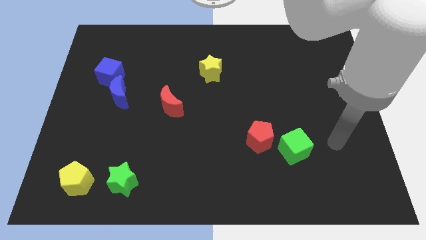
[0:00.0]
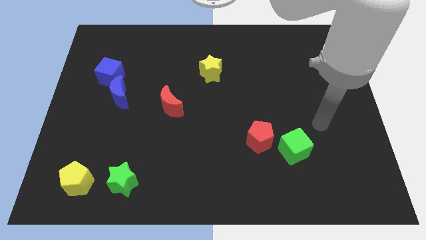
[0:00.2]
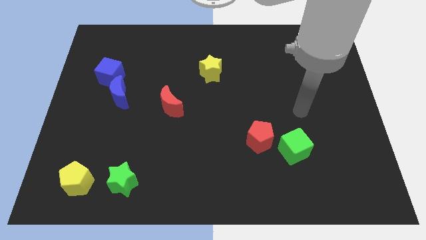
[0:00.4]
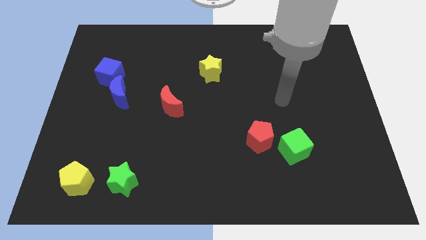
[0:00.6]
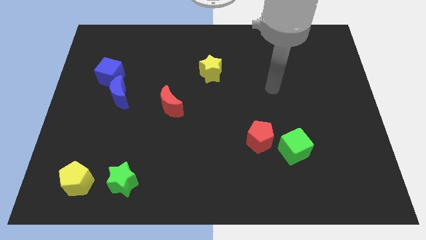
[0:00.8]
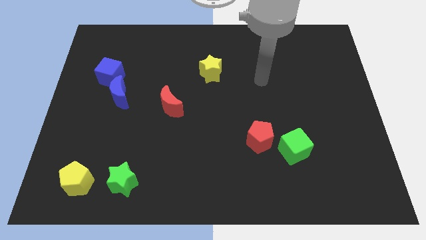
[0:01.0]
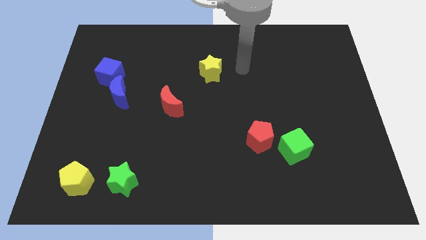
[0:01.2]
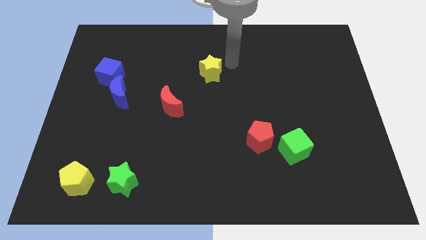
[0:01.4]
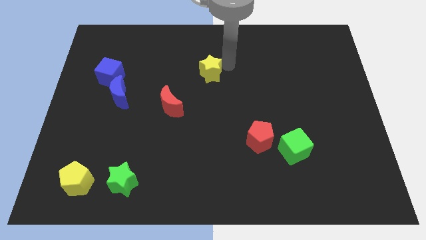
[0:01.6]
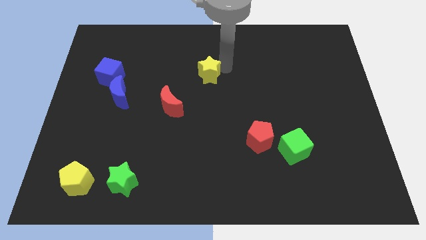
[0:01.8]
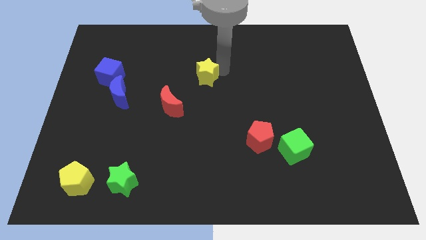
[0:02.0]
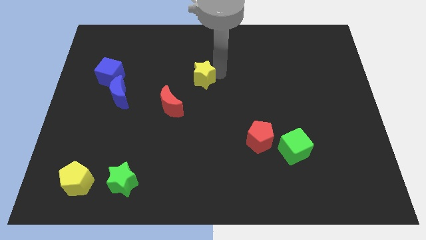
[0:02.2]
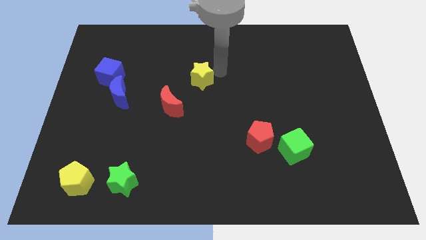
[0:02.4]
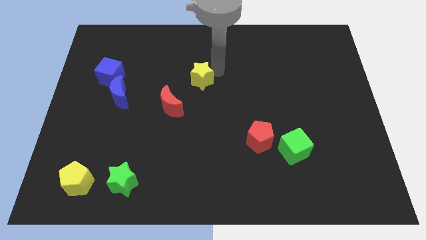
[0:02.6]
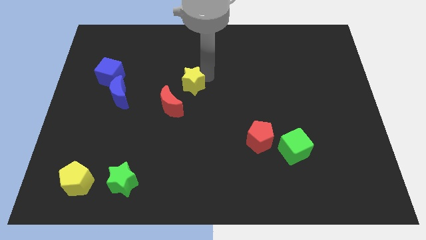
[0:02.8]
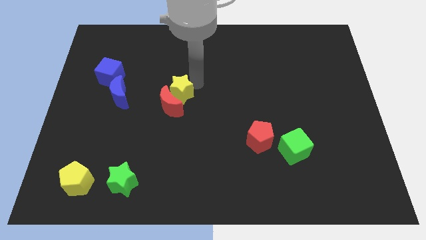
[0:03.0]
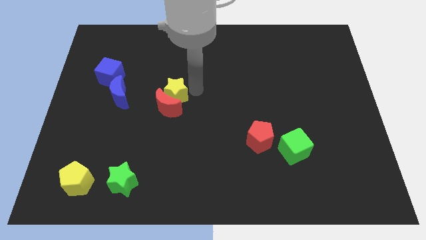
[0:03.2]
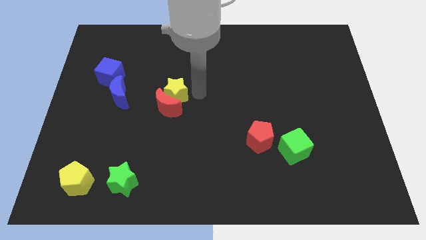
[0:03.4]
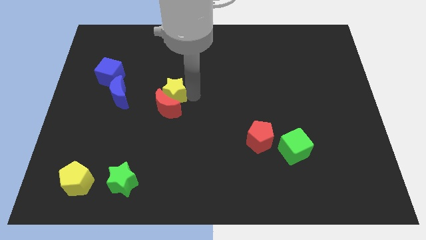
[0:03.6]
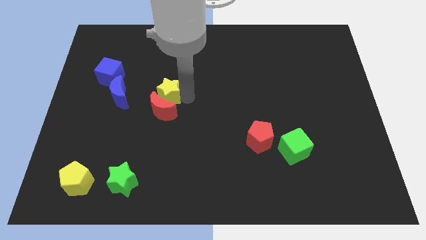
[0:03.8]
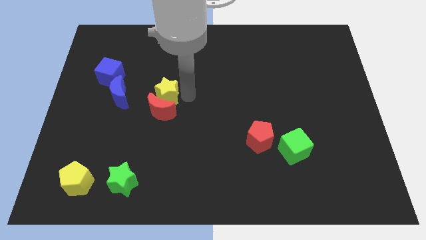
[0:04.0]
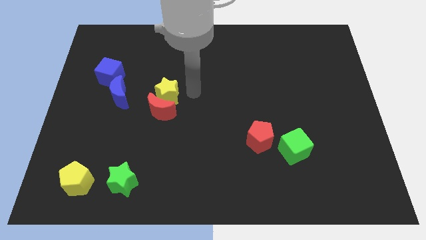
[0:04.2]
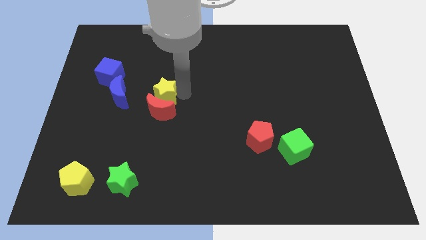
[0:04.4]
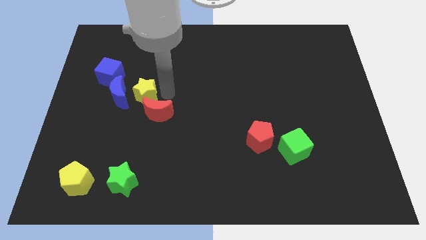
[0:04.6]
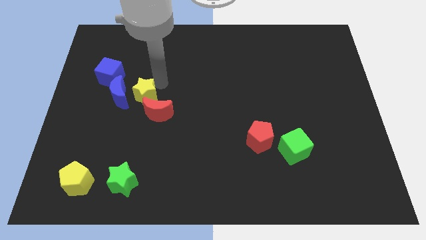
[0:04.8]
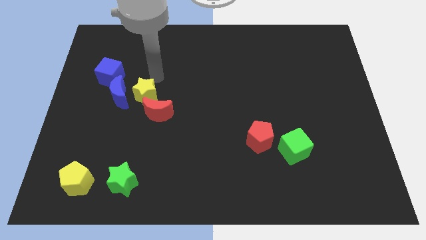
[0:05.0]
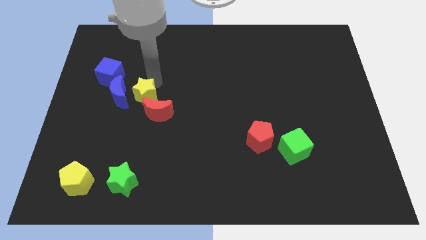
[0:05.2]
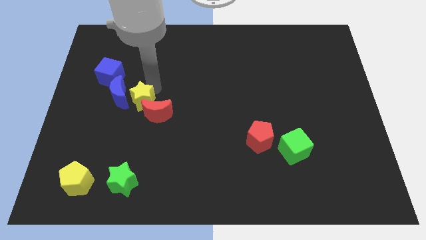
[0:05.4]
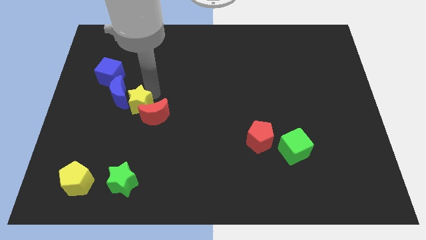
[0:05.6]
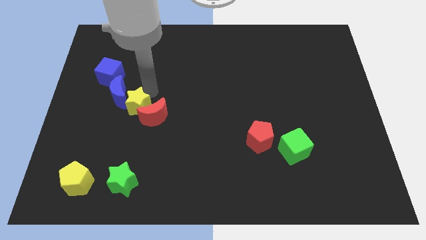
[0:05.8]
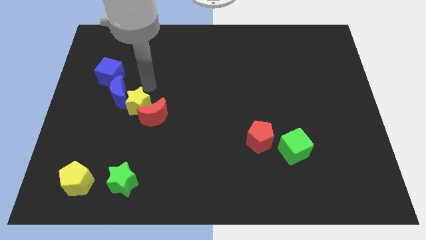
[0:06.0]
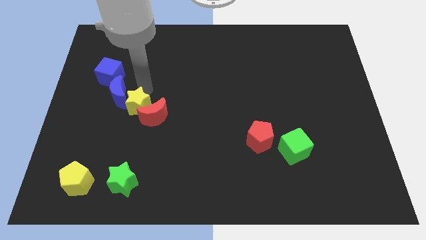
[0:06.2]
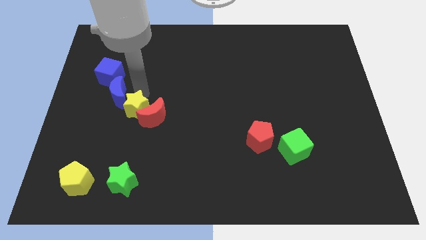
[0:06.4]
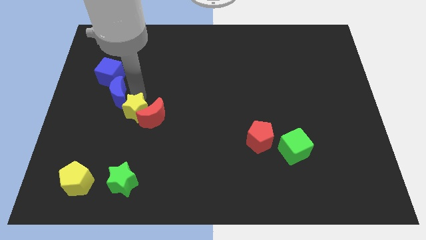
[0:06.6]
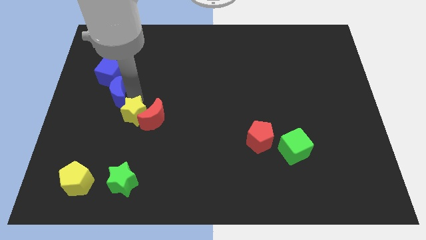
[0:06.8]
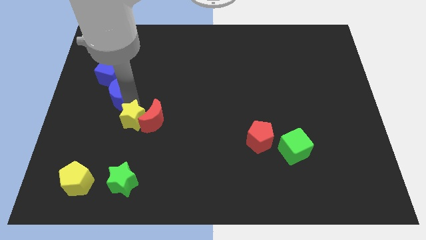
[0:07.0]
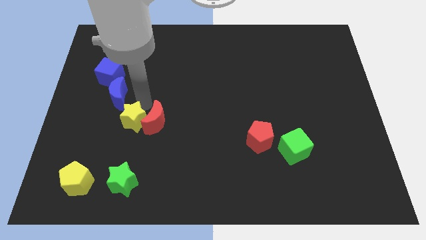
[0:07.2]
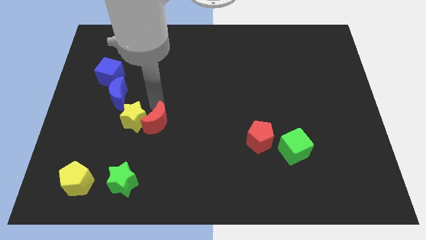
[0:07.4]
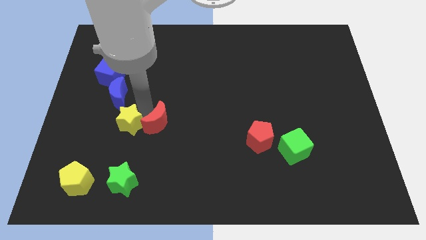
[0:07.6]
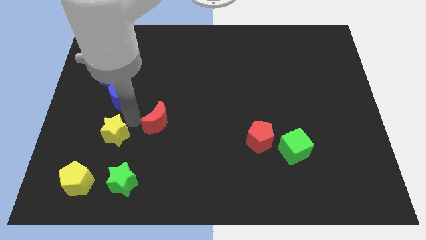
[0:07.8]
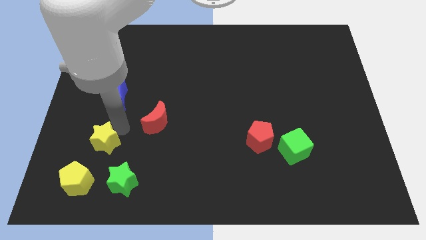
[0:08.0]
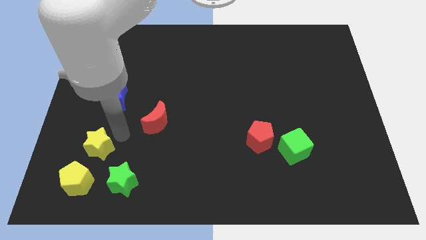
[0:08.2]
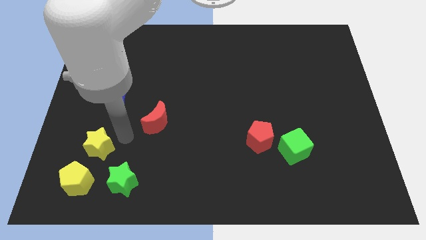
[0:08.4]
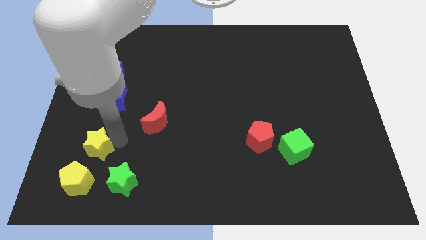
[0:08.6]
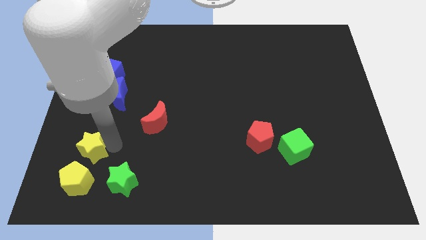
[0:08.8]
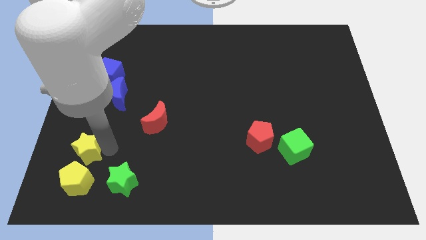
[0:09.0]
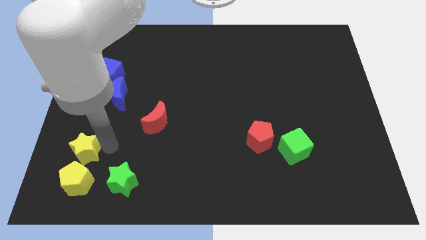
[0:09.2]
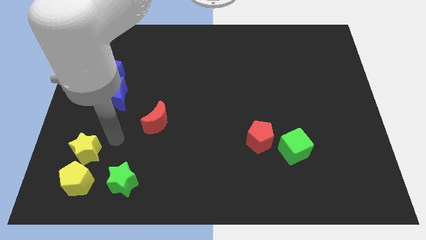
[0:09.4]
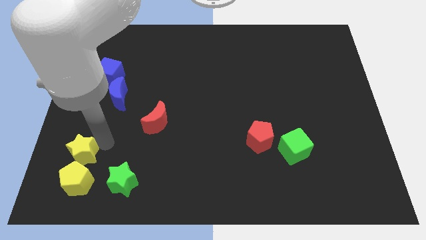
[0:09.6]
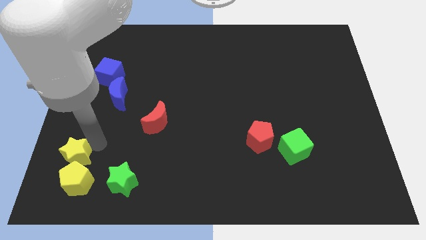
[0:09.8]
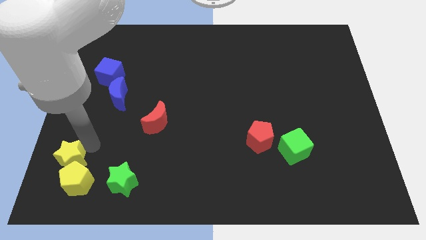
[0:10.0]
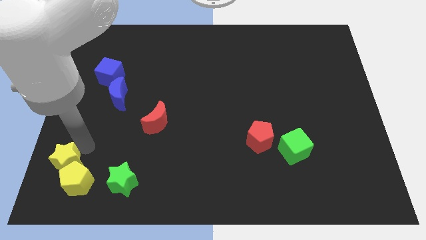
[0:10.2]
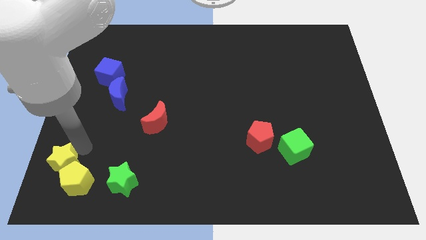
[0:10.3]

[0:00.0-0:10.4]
move the yellow star left of the green star

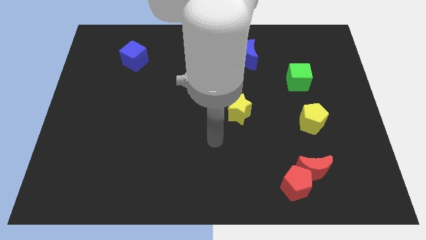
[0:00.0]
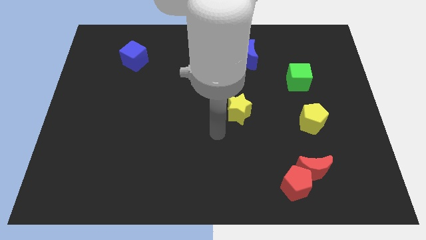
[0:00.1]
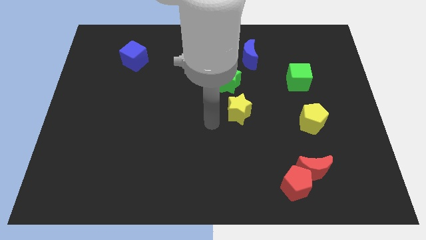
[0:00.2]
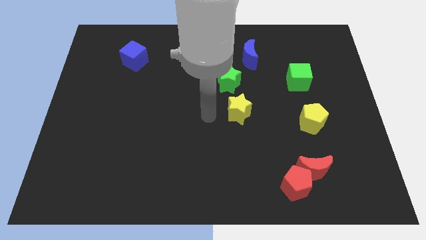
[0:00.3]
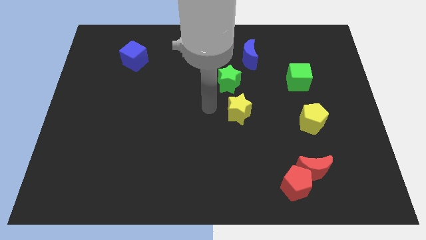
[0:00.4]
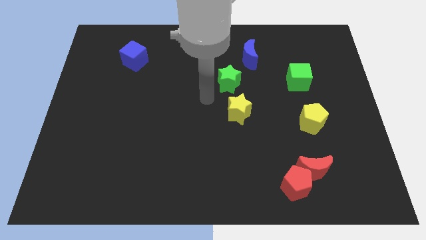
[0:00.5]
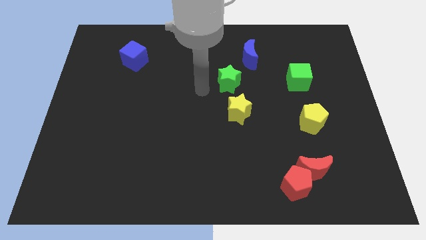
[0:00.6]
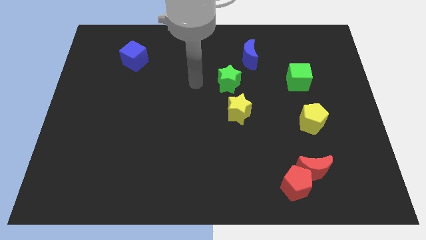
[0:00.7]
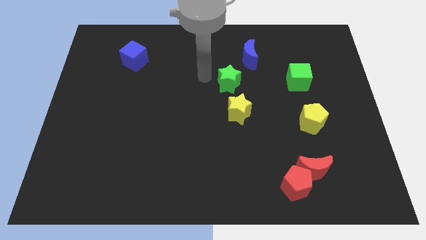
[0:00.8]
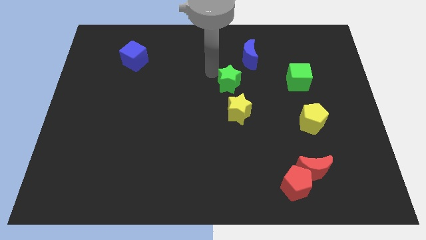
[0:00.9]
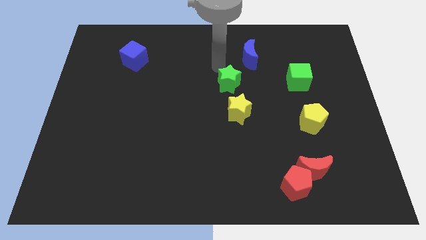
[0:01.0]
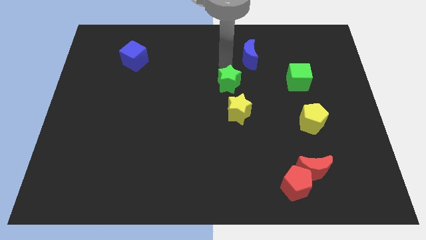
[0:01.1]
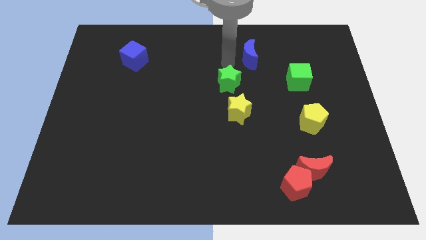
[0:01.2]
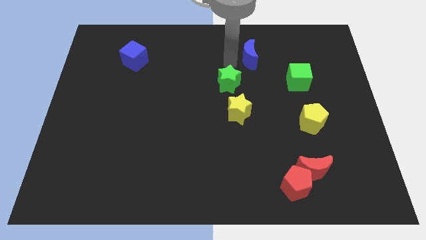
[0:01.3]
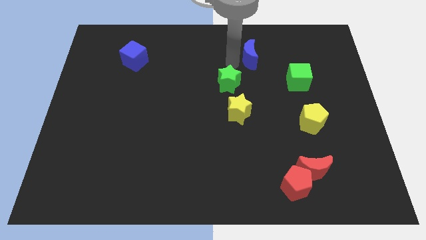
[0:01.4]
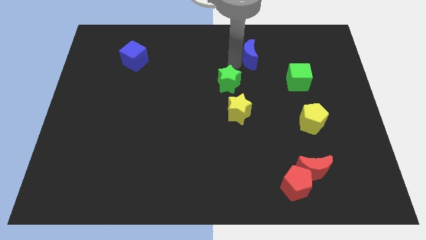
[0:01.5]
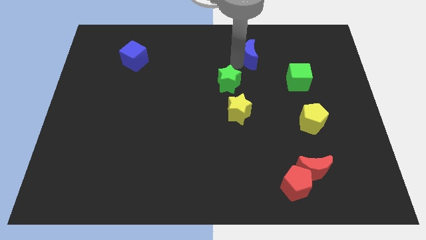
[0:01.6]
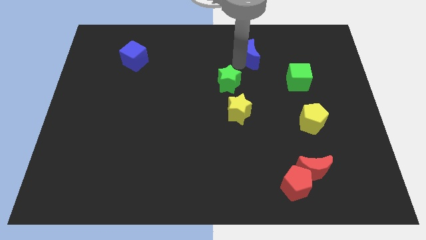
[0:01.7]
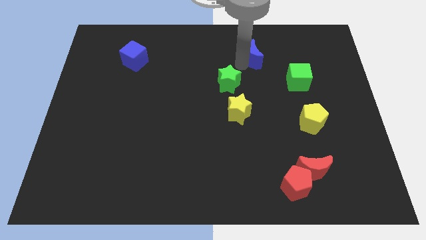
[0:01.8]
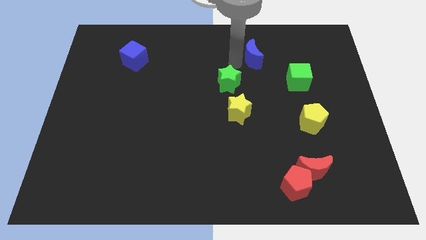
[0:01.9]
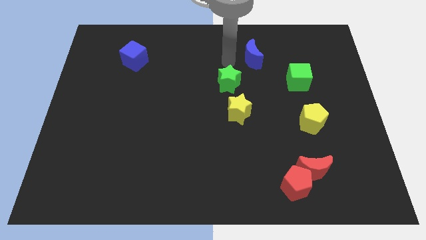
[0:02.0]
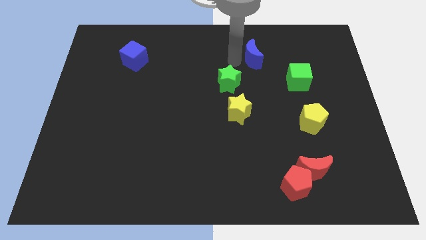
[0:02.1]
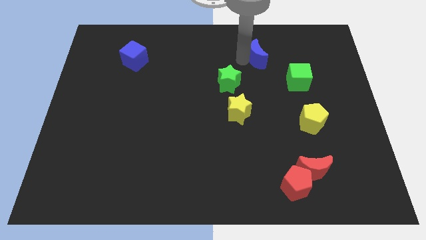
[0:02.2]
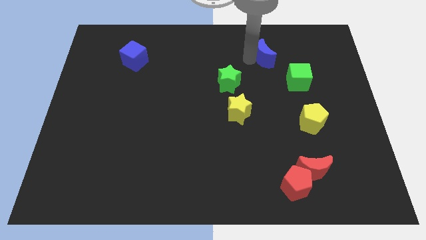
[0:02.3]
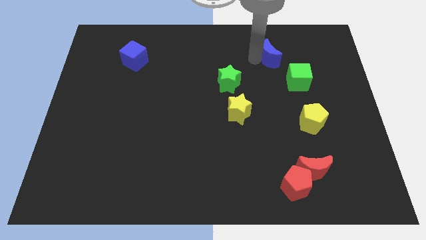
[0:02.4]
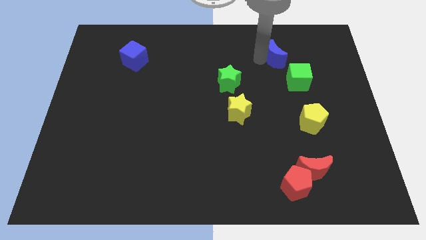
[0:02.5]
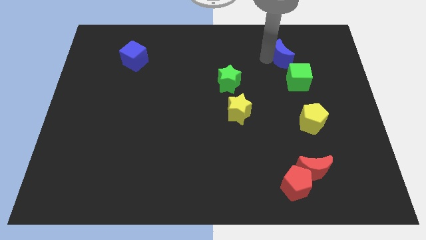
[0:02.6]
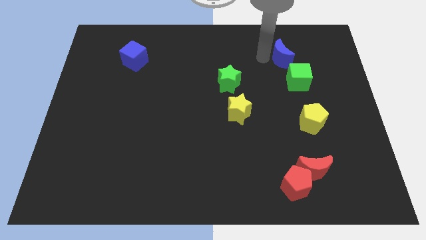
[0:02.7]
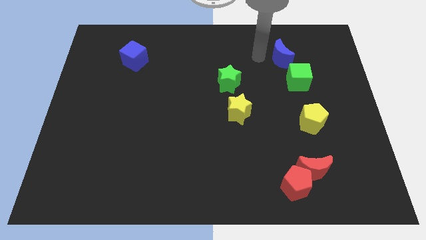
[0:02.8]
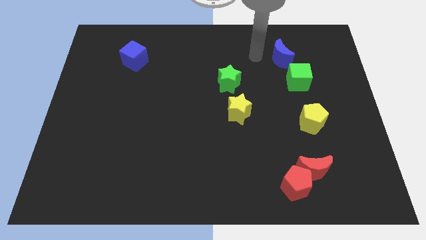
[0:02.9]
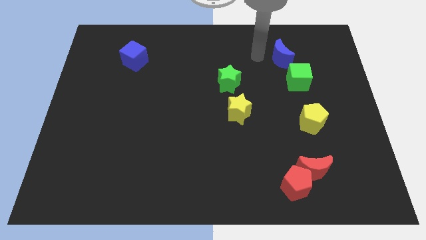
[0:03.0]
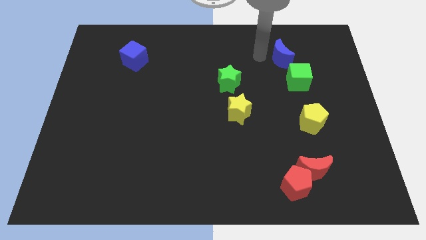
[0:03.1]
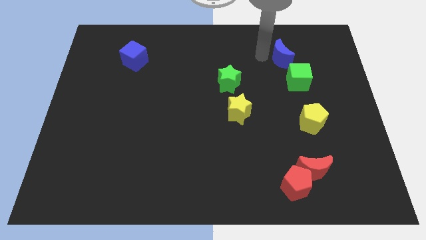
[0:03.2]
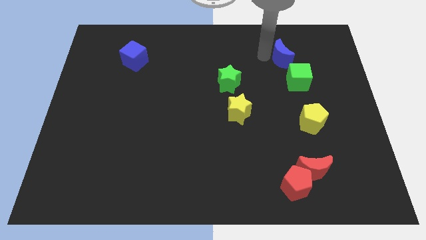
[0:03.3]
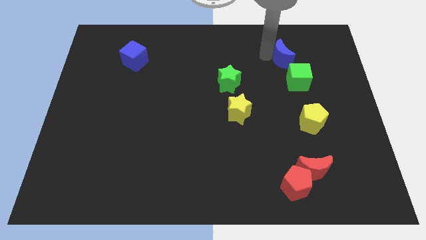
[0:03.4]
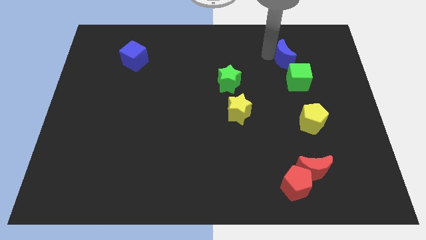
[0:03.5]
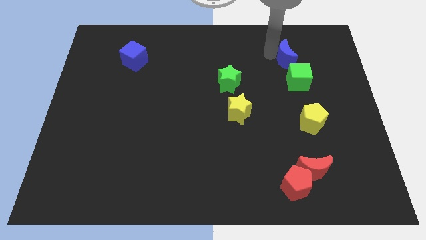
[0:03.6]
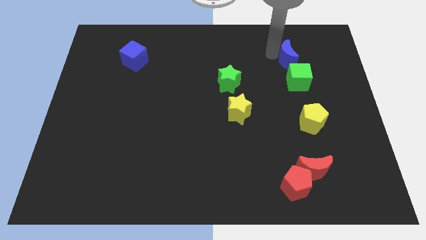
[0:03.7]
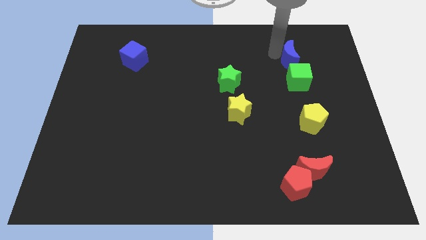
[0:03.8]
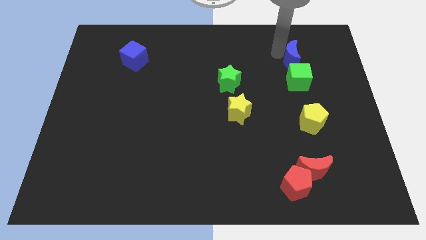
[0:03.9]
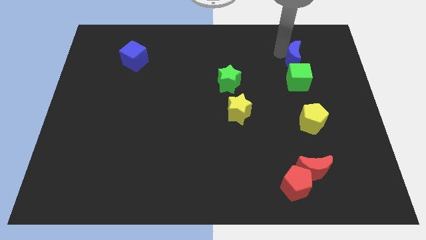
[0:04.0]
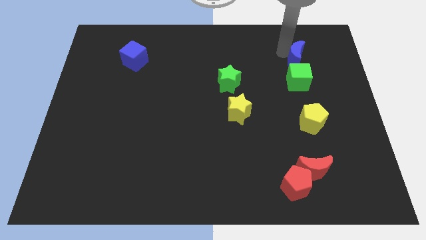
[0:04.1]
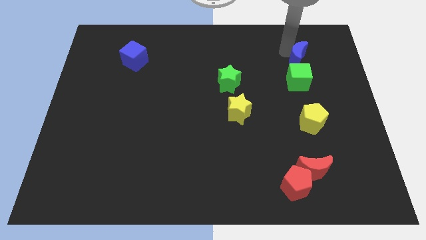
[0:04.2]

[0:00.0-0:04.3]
put the blue moon to the top right side of the green cube
